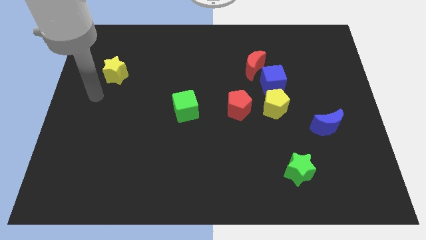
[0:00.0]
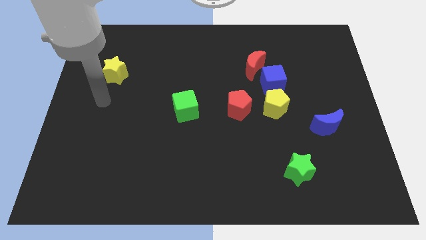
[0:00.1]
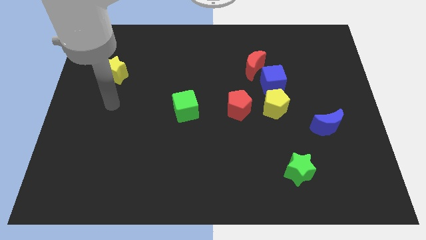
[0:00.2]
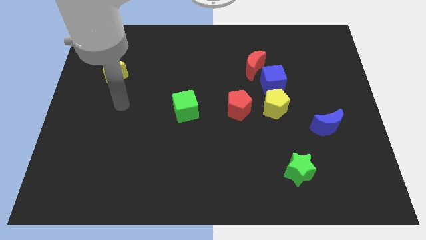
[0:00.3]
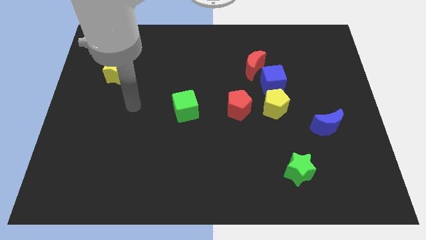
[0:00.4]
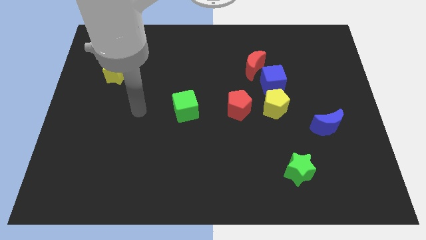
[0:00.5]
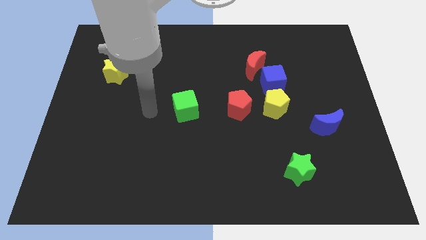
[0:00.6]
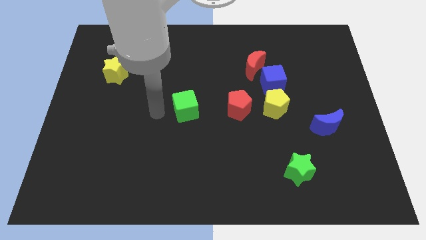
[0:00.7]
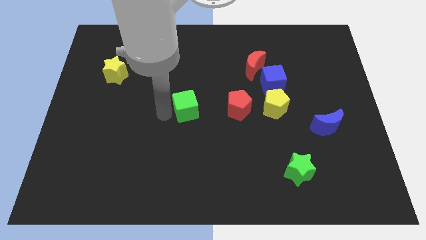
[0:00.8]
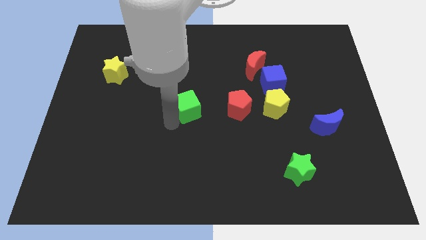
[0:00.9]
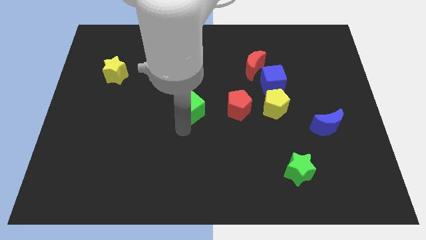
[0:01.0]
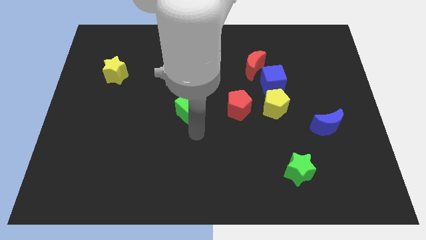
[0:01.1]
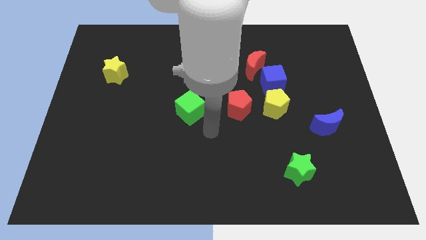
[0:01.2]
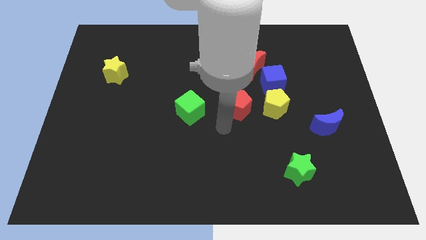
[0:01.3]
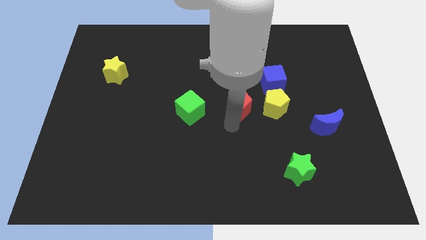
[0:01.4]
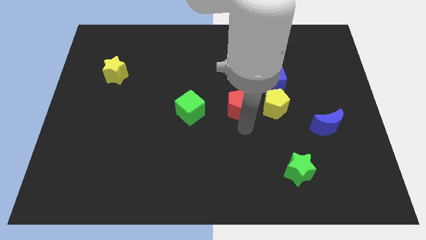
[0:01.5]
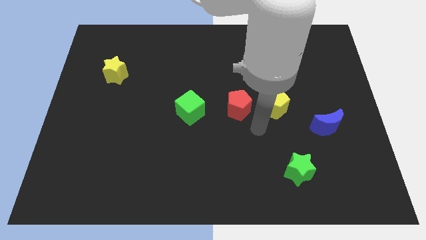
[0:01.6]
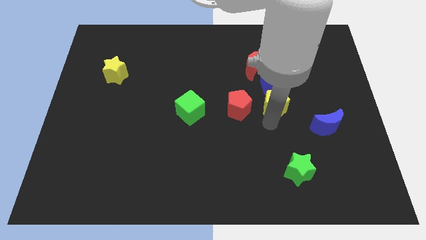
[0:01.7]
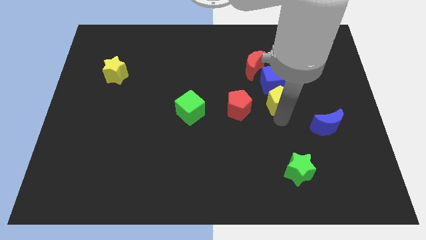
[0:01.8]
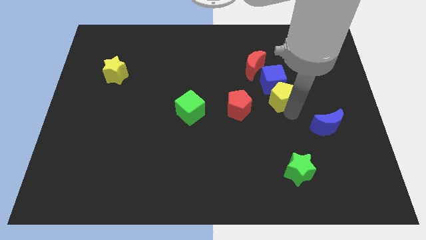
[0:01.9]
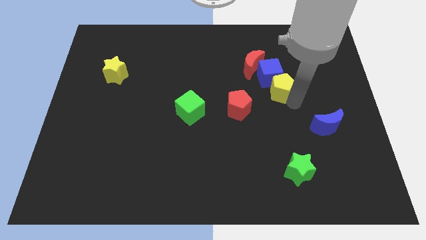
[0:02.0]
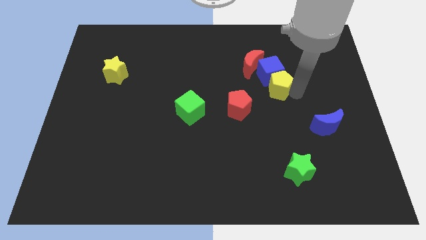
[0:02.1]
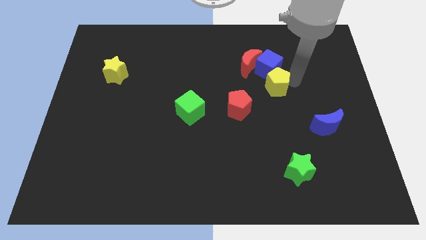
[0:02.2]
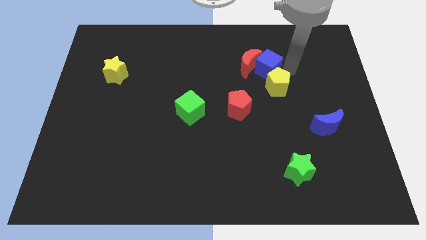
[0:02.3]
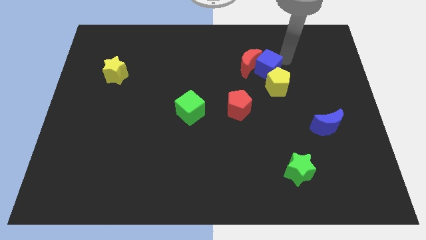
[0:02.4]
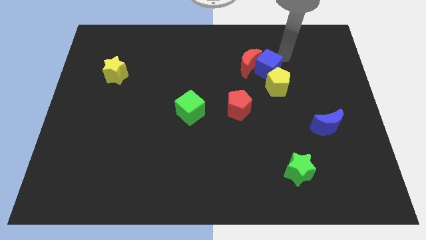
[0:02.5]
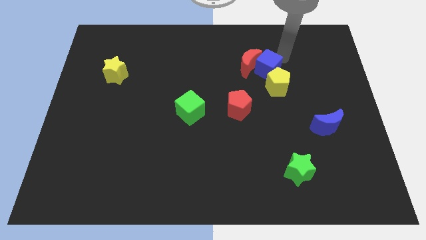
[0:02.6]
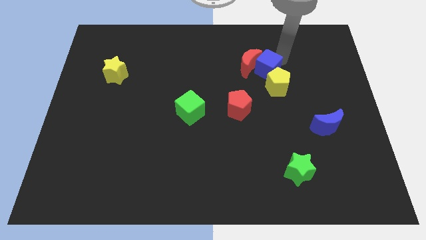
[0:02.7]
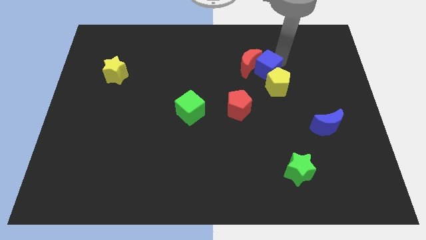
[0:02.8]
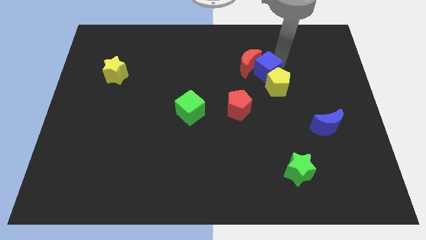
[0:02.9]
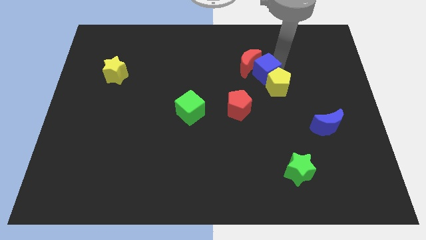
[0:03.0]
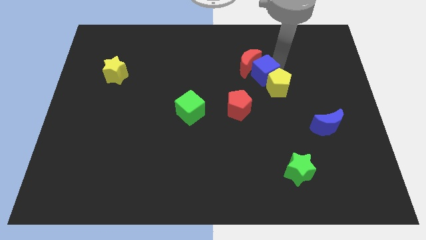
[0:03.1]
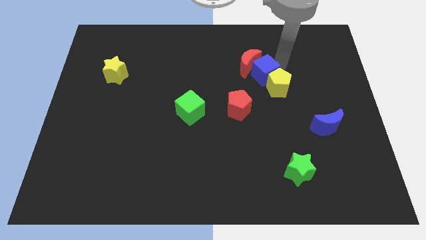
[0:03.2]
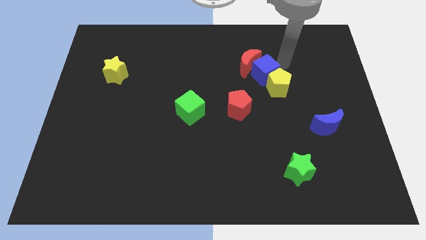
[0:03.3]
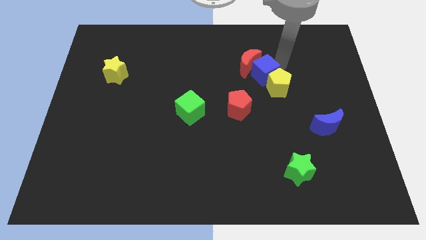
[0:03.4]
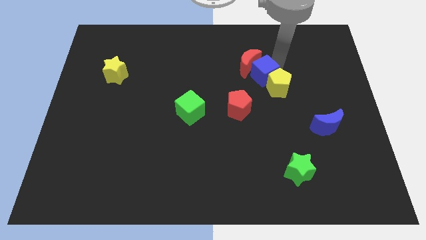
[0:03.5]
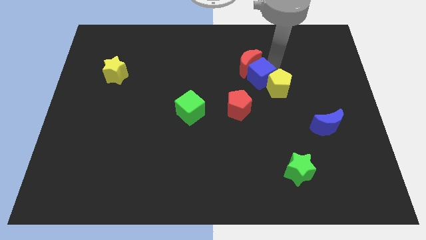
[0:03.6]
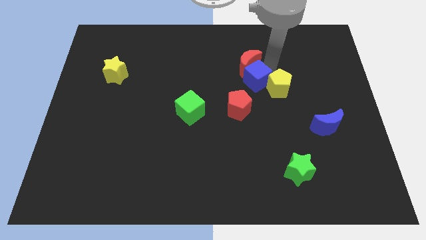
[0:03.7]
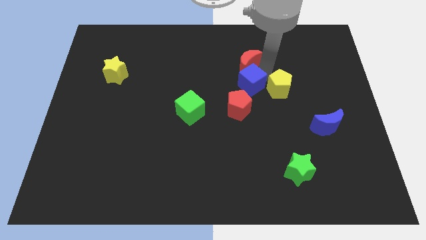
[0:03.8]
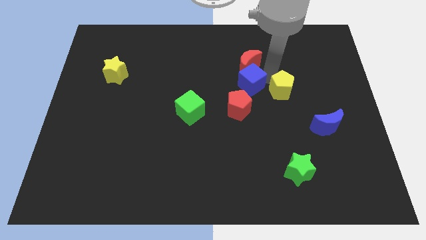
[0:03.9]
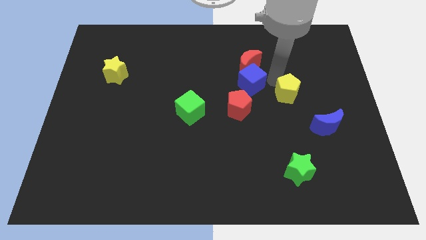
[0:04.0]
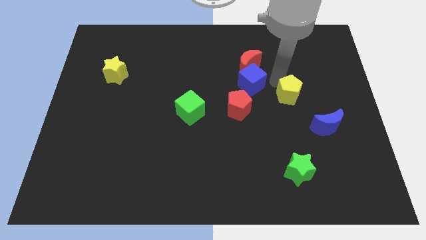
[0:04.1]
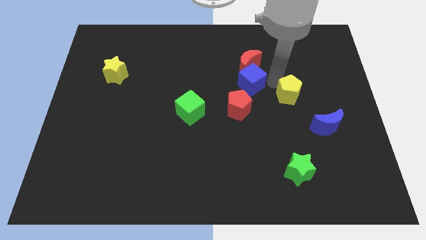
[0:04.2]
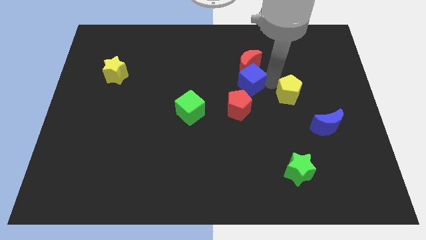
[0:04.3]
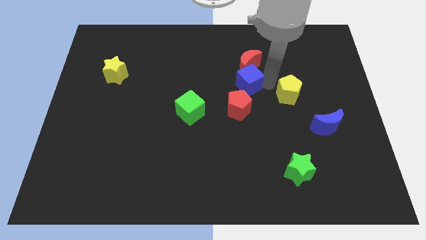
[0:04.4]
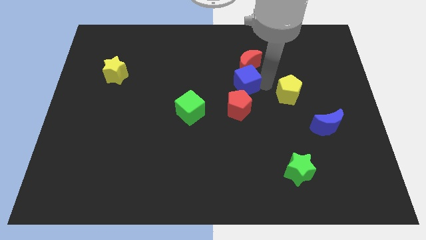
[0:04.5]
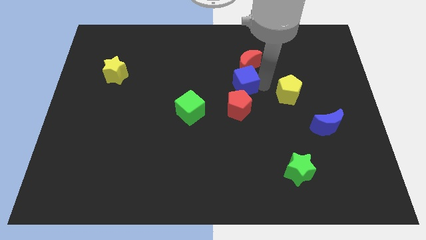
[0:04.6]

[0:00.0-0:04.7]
move the blue cube to the left a little bit

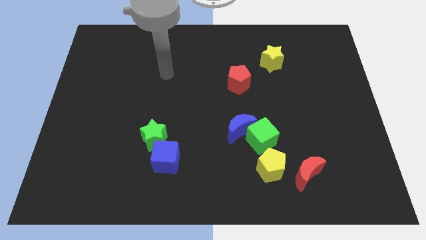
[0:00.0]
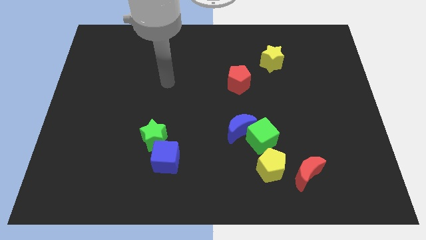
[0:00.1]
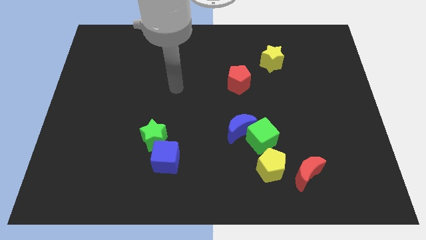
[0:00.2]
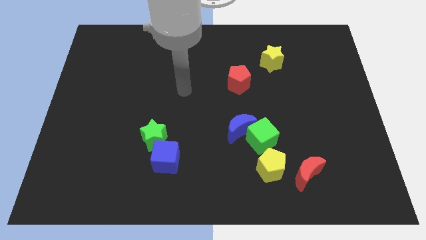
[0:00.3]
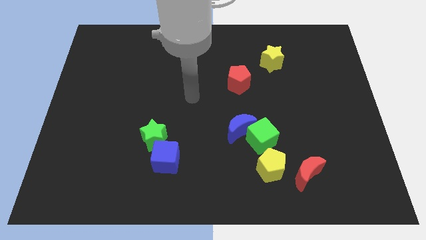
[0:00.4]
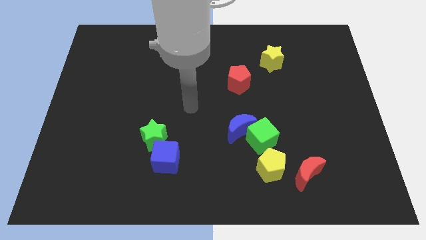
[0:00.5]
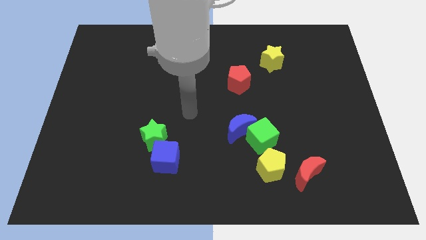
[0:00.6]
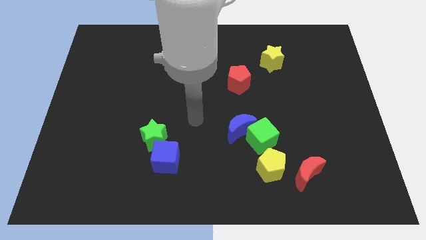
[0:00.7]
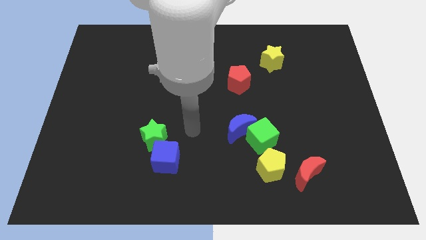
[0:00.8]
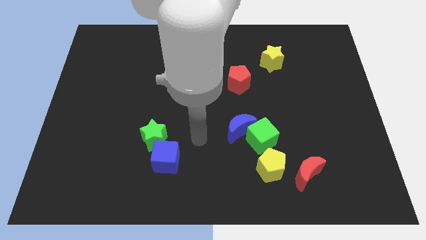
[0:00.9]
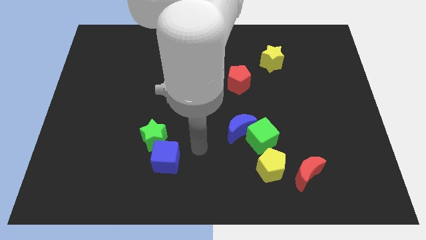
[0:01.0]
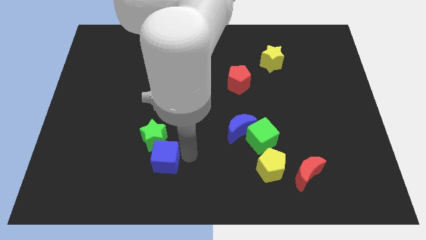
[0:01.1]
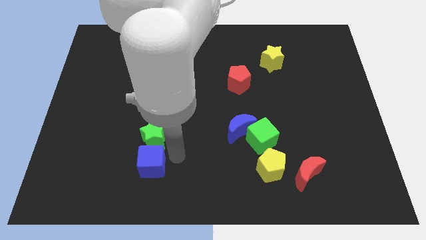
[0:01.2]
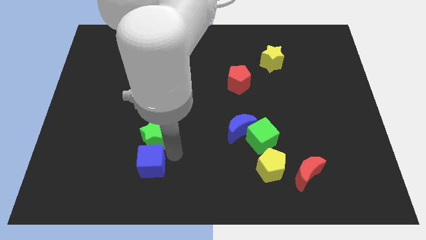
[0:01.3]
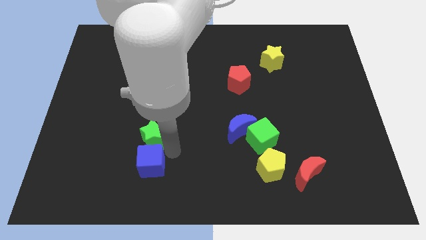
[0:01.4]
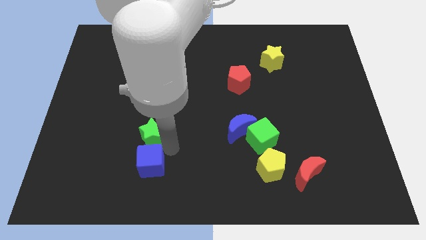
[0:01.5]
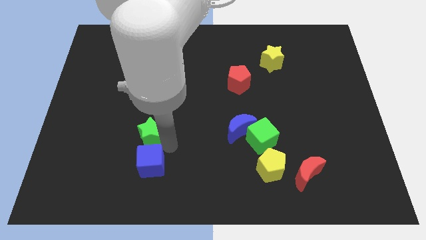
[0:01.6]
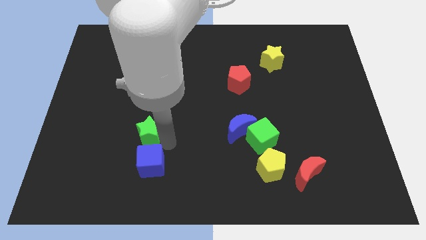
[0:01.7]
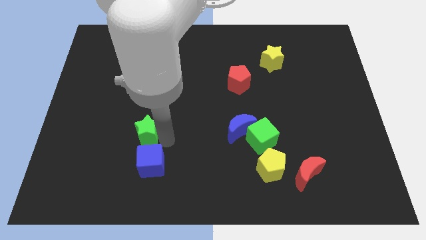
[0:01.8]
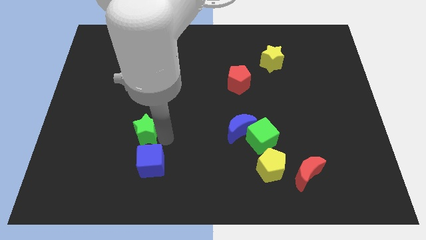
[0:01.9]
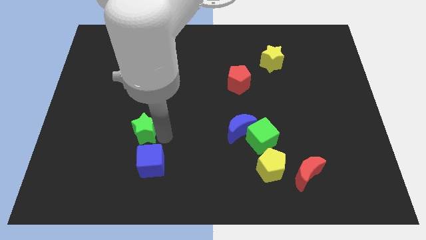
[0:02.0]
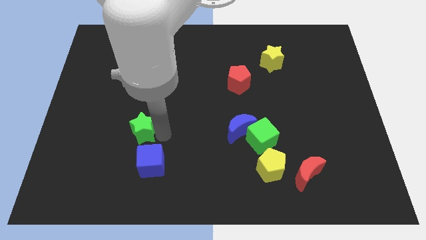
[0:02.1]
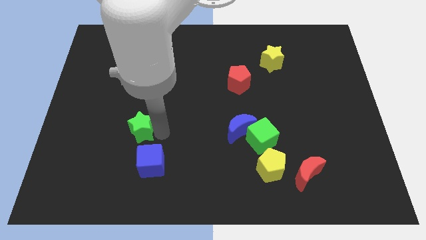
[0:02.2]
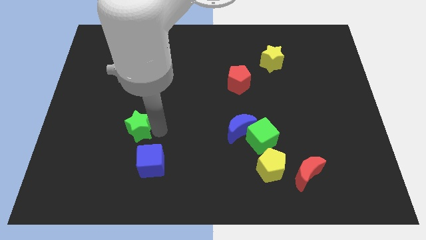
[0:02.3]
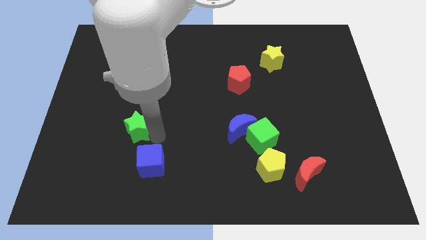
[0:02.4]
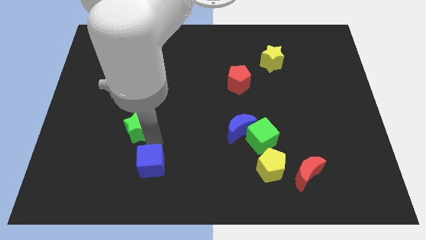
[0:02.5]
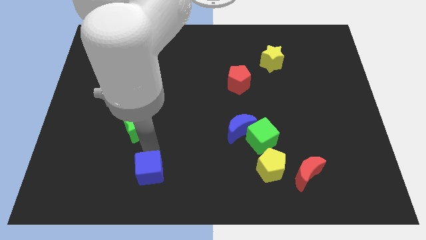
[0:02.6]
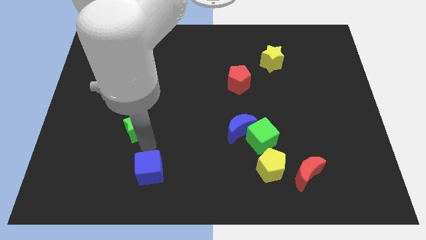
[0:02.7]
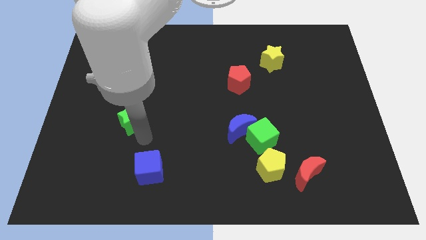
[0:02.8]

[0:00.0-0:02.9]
push the green star up and then to the left a little

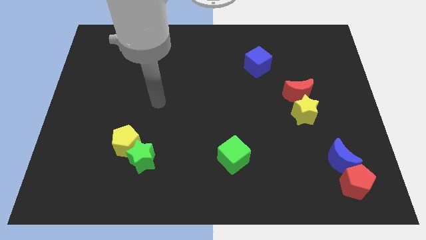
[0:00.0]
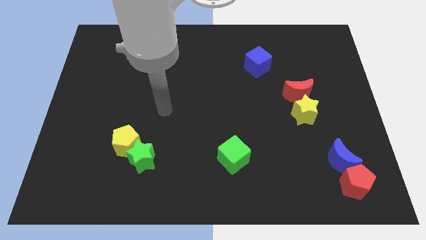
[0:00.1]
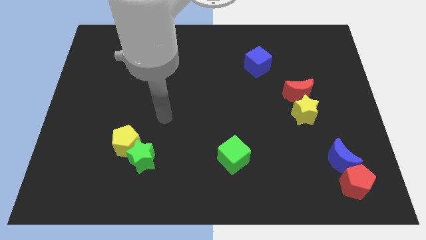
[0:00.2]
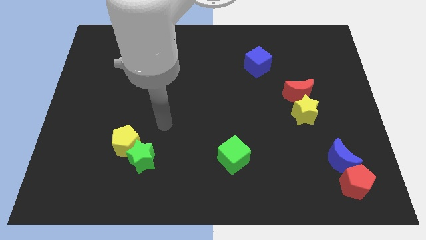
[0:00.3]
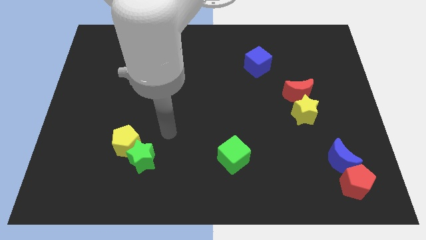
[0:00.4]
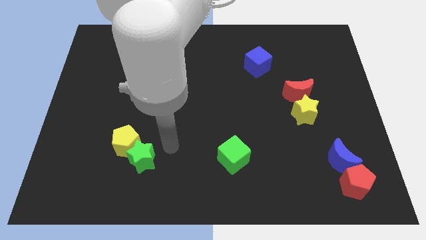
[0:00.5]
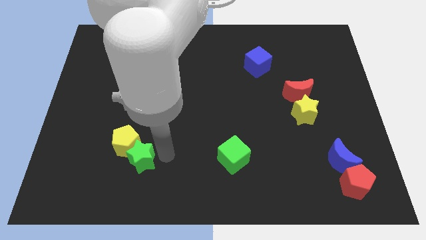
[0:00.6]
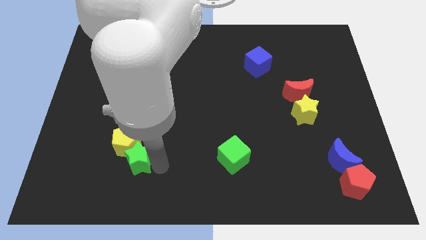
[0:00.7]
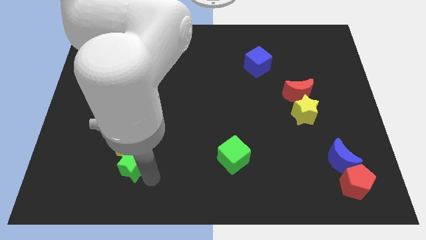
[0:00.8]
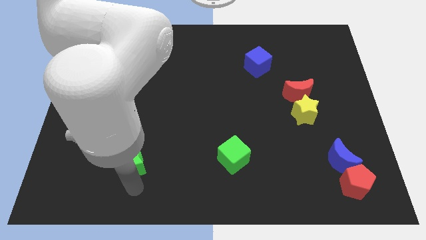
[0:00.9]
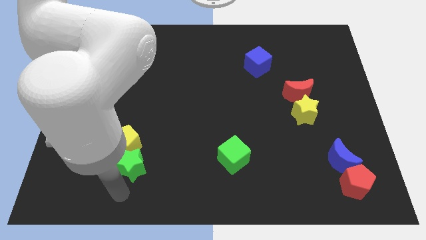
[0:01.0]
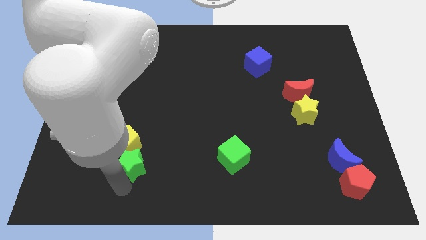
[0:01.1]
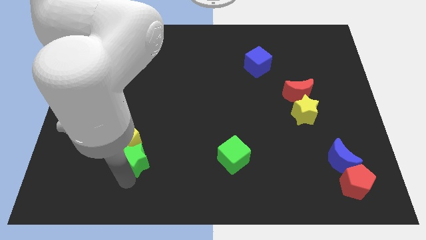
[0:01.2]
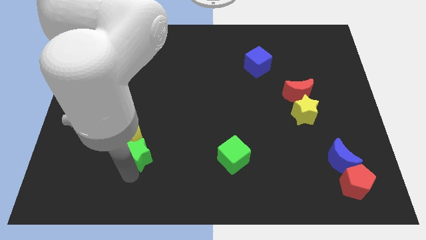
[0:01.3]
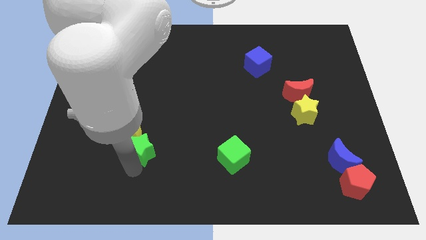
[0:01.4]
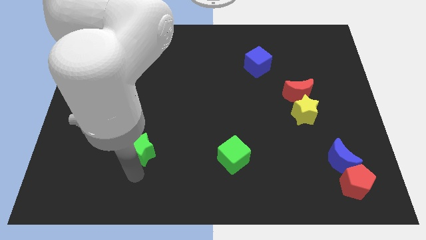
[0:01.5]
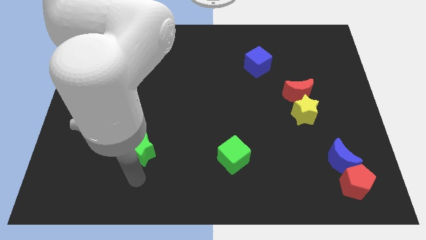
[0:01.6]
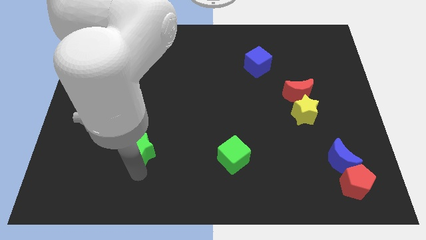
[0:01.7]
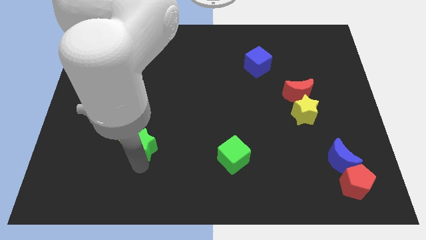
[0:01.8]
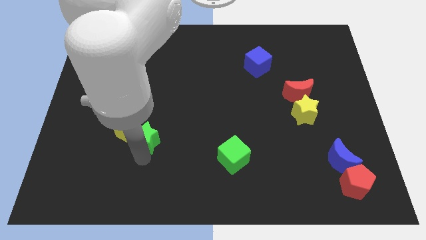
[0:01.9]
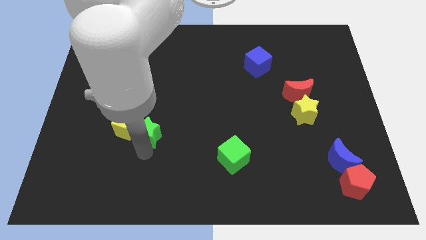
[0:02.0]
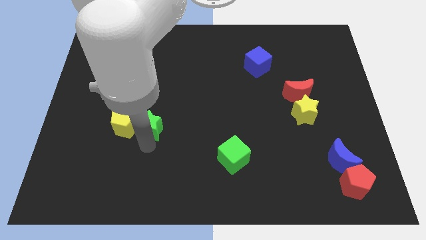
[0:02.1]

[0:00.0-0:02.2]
slide the green star a bit up
